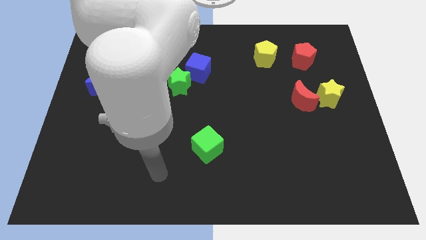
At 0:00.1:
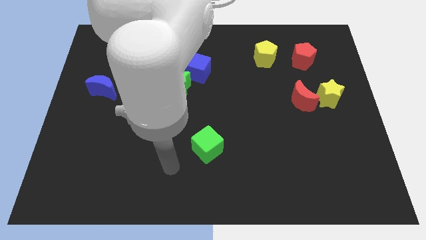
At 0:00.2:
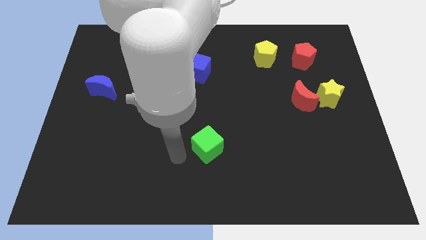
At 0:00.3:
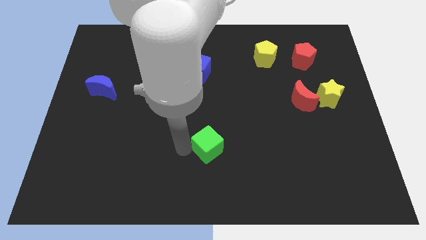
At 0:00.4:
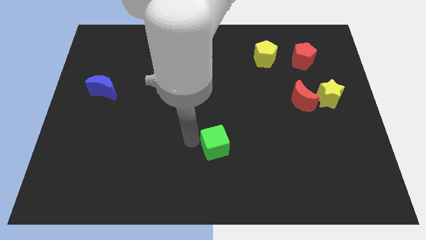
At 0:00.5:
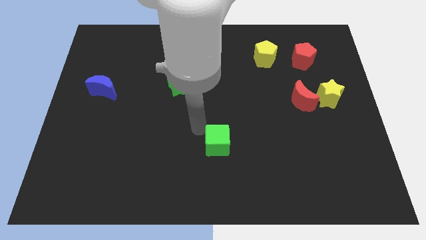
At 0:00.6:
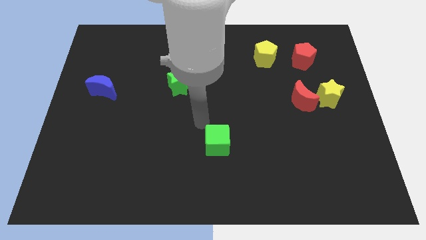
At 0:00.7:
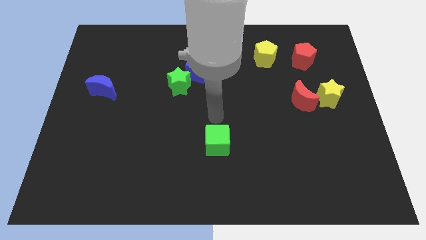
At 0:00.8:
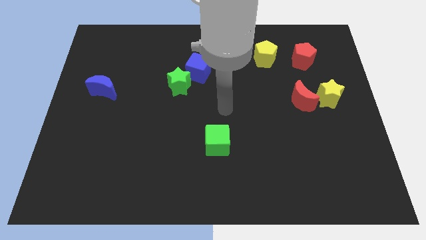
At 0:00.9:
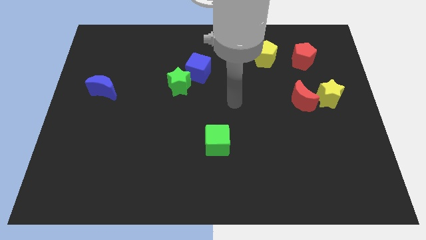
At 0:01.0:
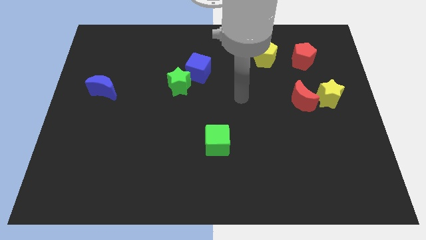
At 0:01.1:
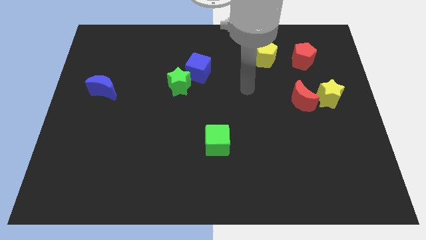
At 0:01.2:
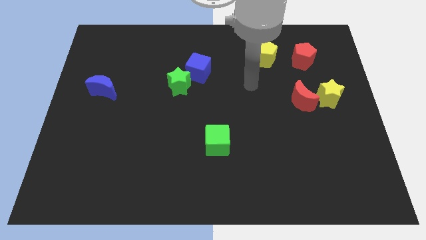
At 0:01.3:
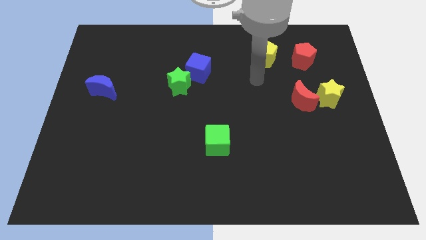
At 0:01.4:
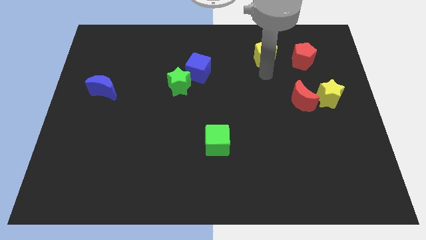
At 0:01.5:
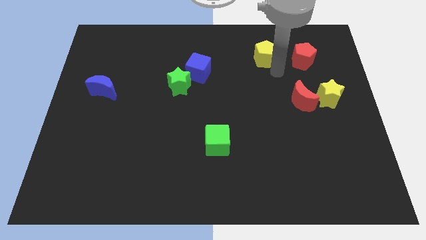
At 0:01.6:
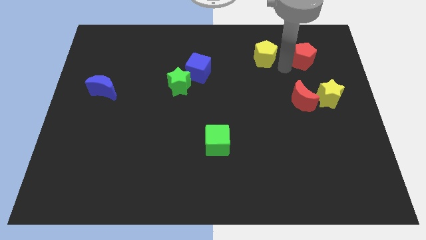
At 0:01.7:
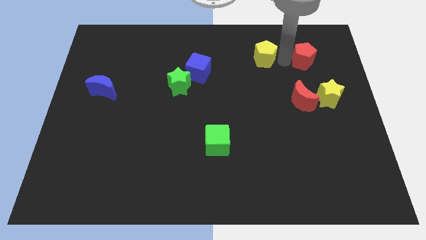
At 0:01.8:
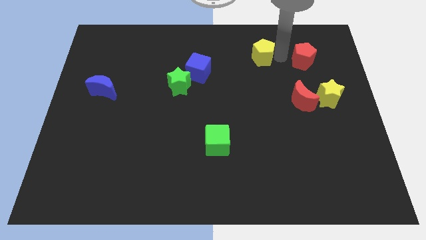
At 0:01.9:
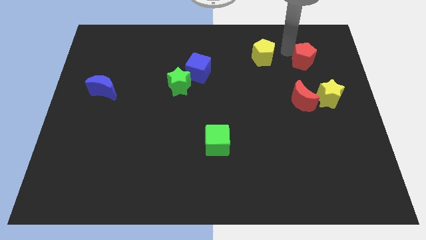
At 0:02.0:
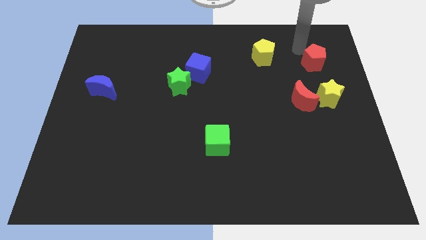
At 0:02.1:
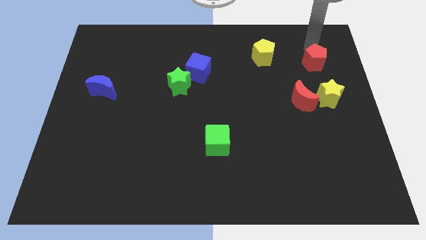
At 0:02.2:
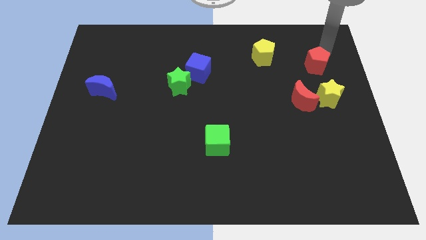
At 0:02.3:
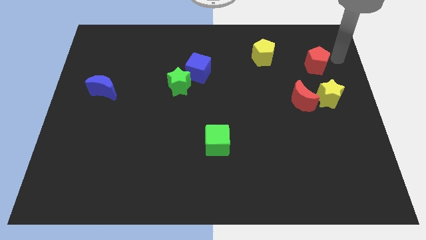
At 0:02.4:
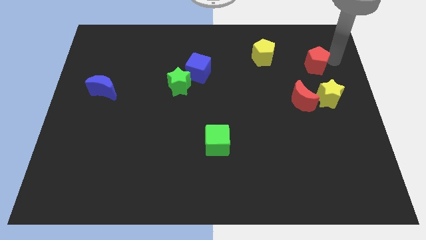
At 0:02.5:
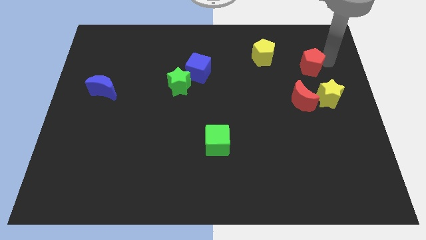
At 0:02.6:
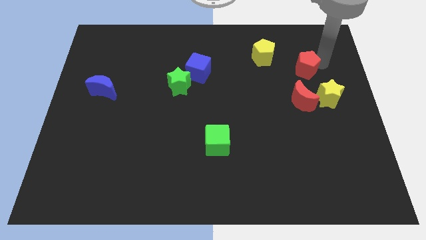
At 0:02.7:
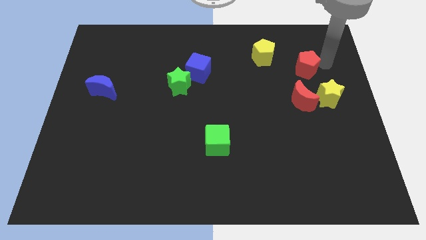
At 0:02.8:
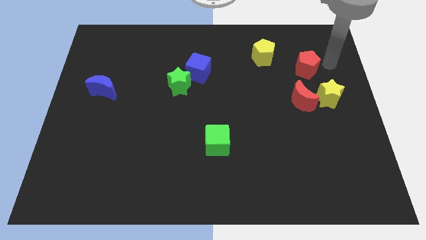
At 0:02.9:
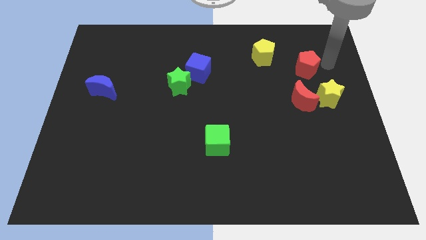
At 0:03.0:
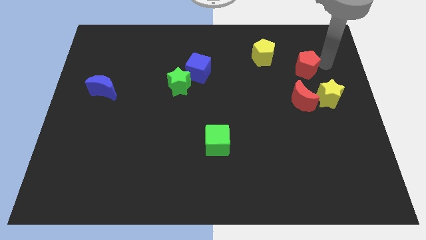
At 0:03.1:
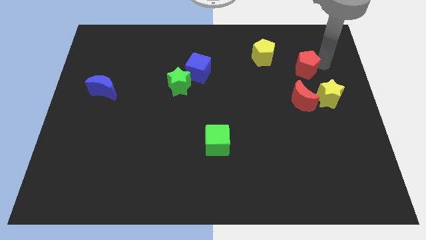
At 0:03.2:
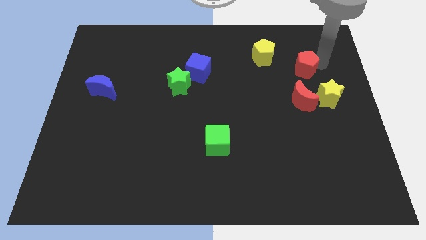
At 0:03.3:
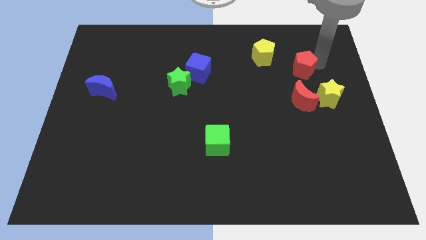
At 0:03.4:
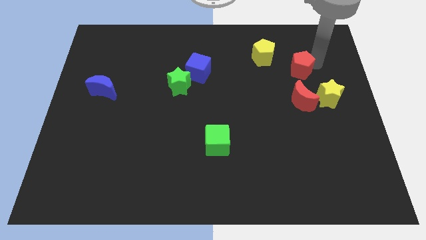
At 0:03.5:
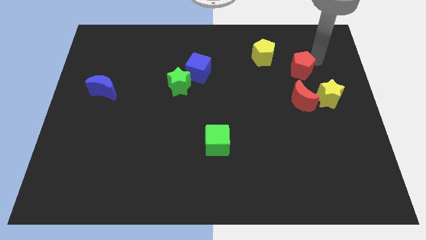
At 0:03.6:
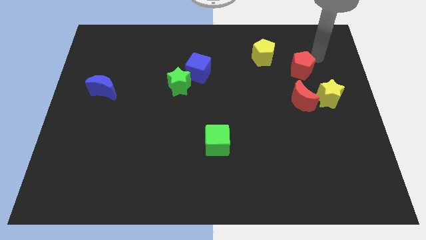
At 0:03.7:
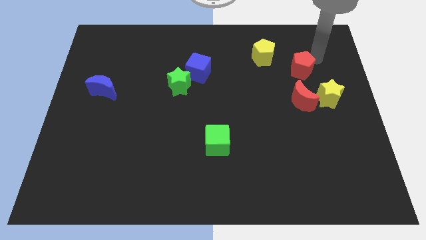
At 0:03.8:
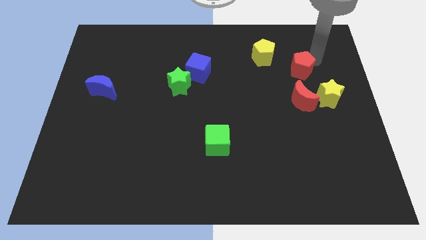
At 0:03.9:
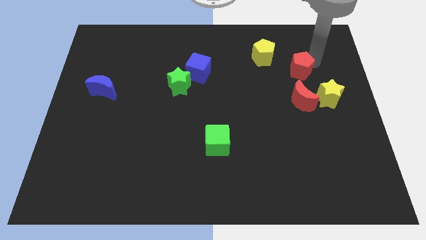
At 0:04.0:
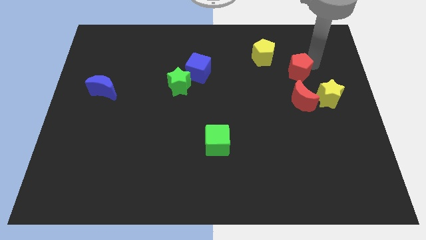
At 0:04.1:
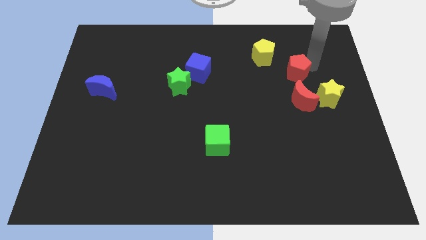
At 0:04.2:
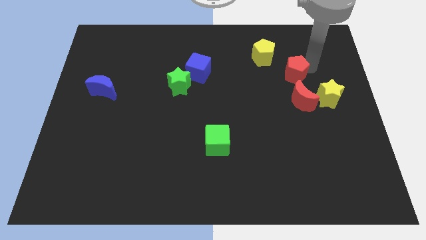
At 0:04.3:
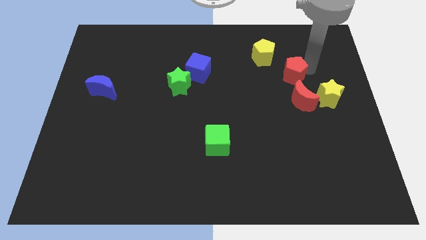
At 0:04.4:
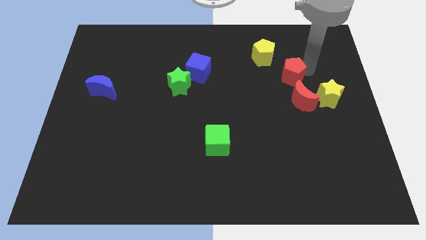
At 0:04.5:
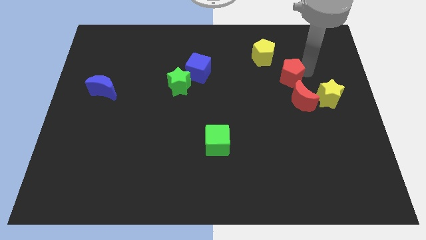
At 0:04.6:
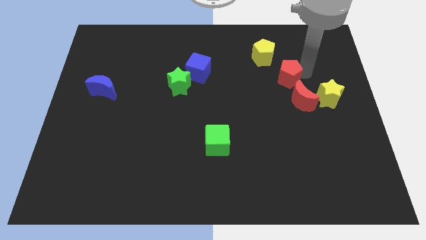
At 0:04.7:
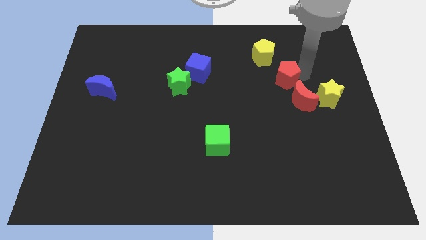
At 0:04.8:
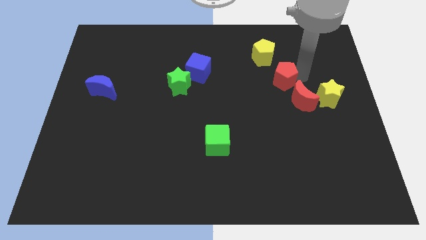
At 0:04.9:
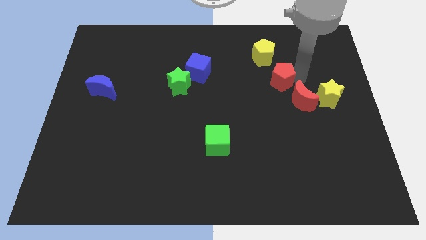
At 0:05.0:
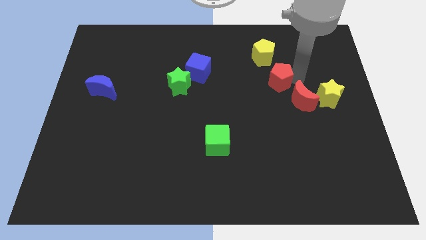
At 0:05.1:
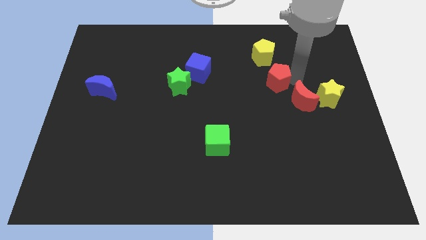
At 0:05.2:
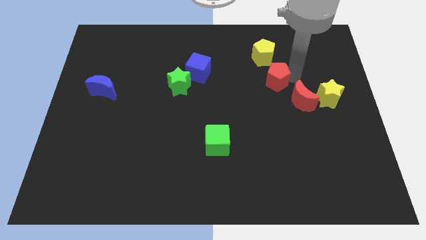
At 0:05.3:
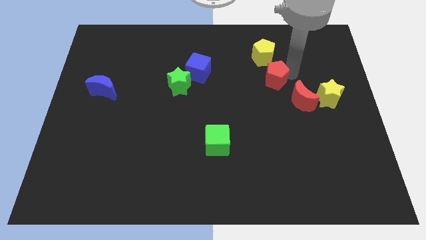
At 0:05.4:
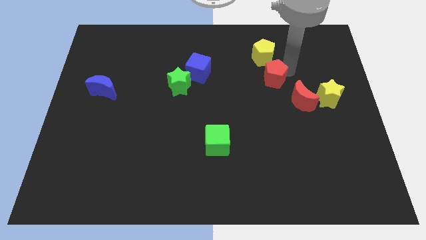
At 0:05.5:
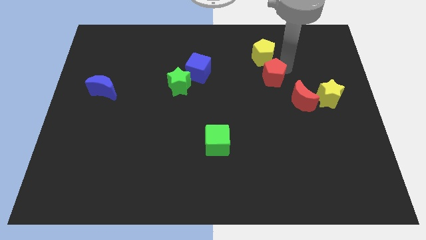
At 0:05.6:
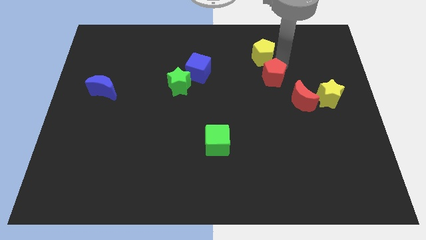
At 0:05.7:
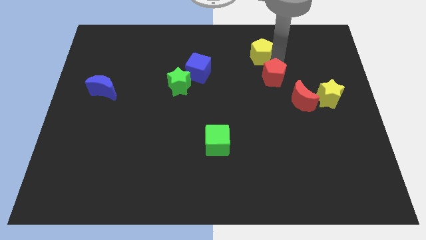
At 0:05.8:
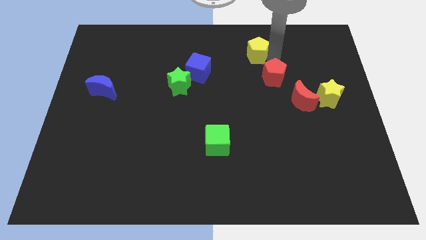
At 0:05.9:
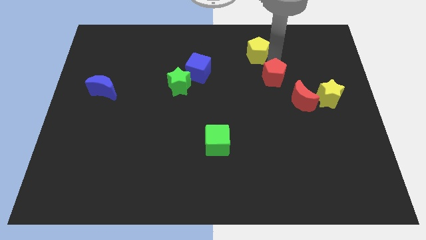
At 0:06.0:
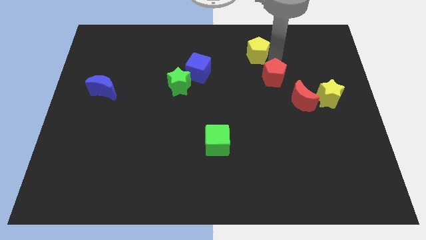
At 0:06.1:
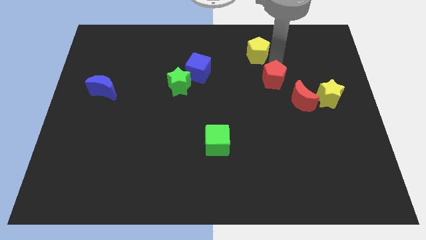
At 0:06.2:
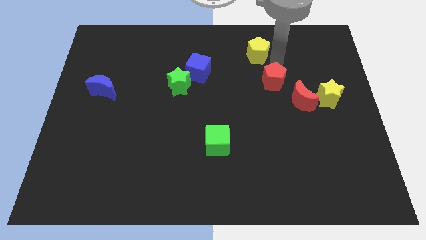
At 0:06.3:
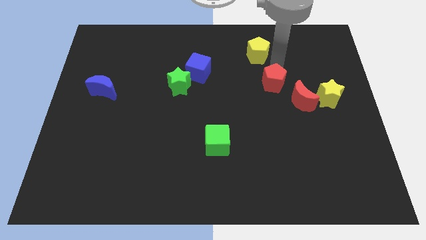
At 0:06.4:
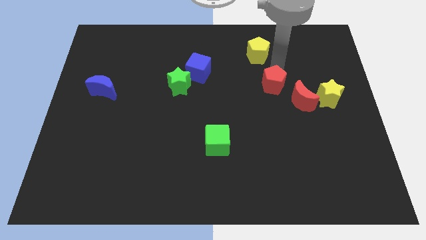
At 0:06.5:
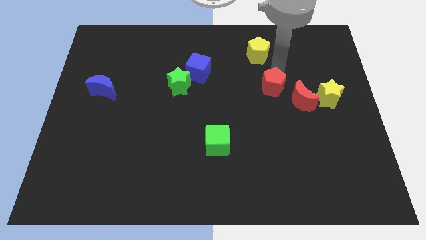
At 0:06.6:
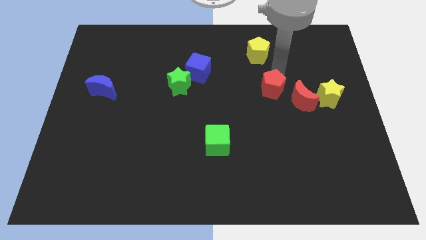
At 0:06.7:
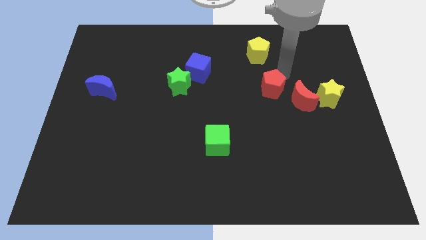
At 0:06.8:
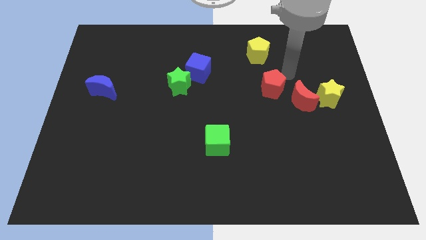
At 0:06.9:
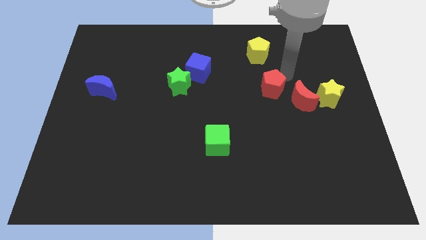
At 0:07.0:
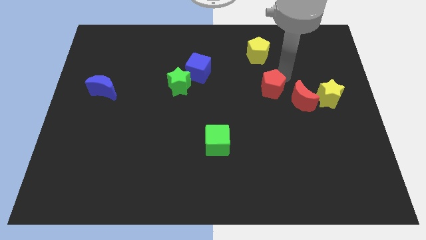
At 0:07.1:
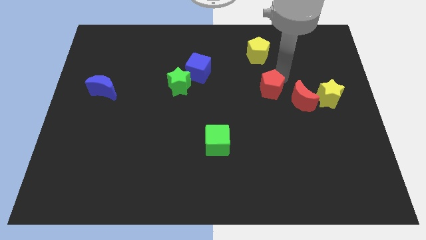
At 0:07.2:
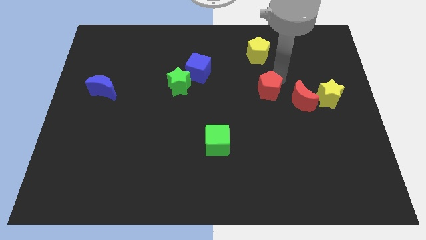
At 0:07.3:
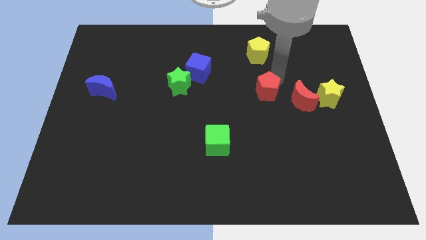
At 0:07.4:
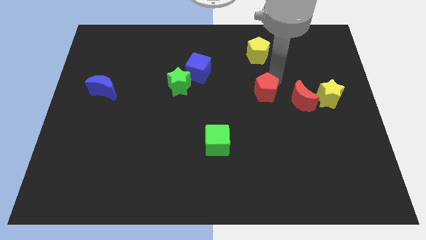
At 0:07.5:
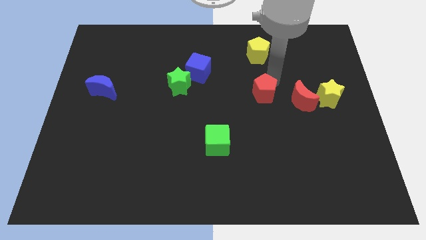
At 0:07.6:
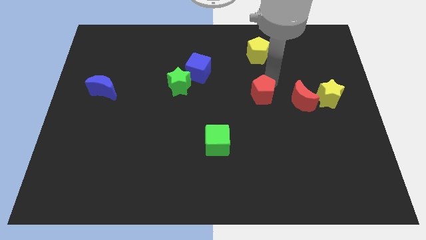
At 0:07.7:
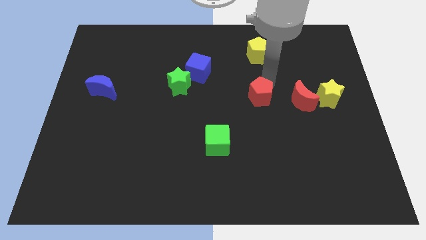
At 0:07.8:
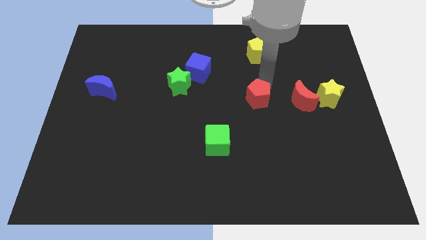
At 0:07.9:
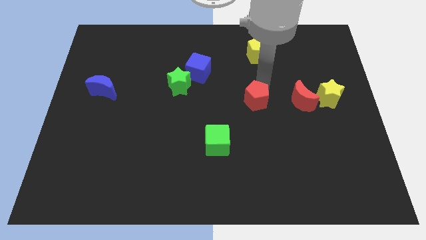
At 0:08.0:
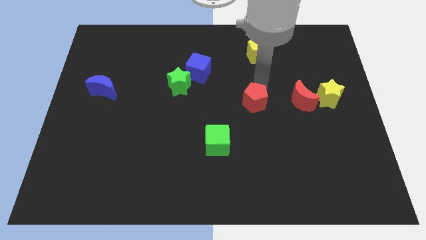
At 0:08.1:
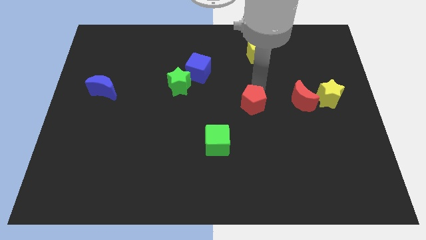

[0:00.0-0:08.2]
push the red pentagon down and then left
